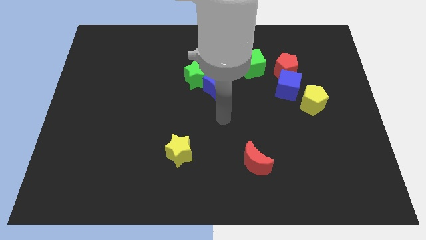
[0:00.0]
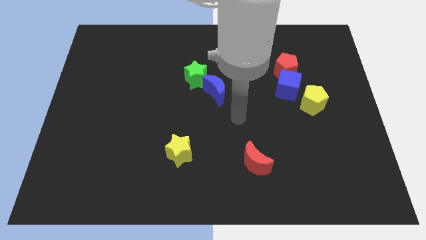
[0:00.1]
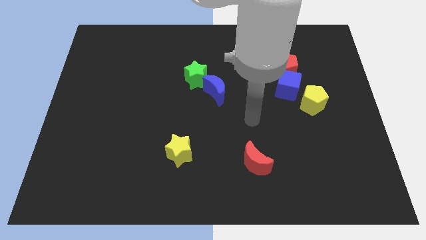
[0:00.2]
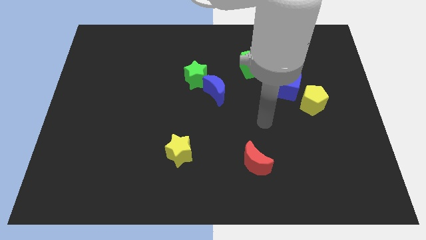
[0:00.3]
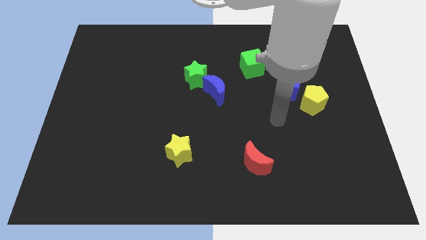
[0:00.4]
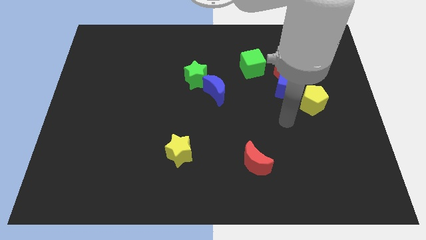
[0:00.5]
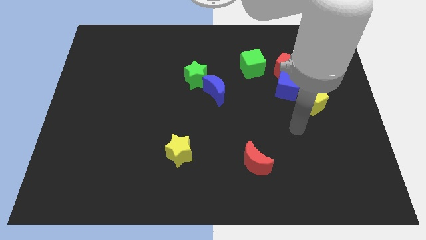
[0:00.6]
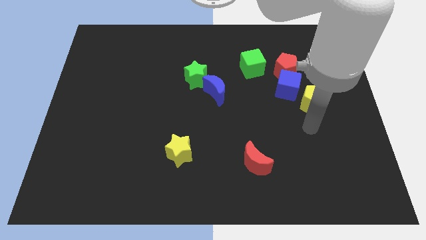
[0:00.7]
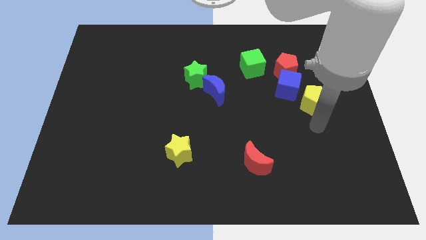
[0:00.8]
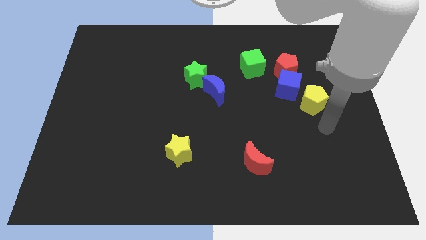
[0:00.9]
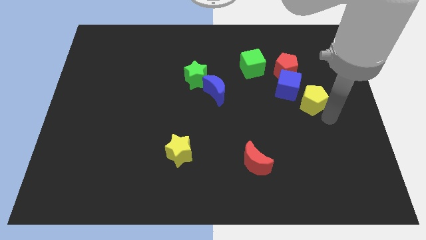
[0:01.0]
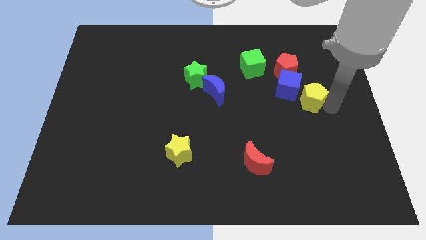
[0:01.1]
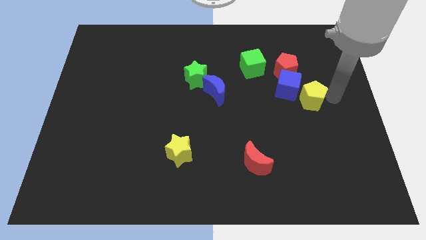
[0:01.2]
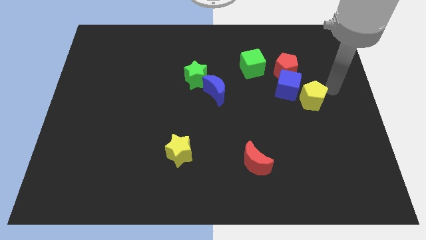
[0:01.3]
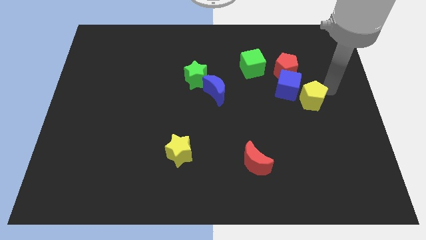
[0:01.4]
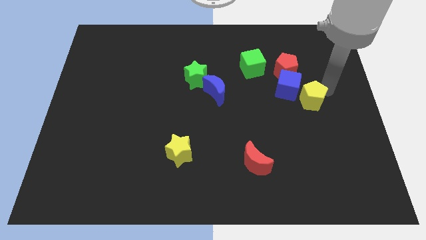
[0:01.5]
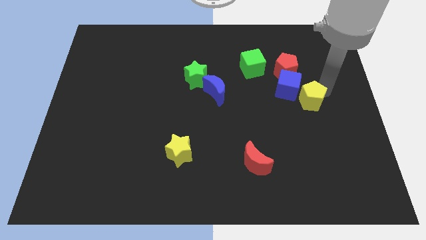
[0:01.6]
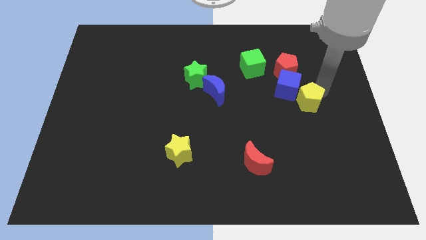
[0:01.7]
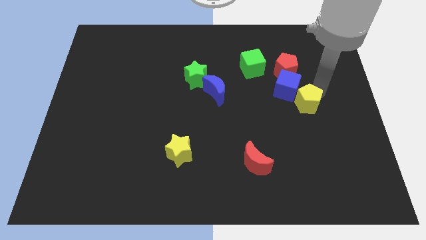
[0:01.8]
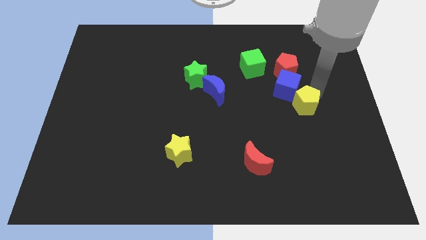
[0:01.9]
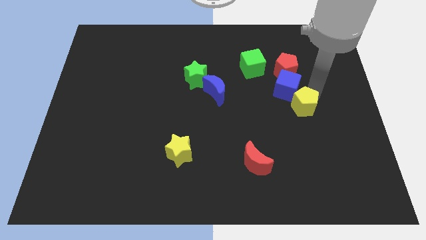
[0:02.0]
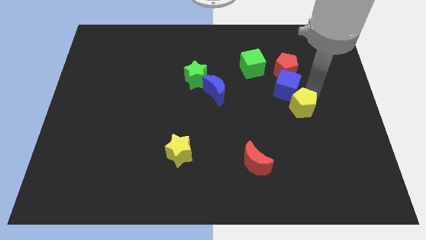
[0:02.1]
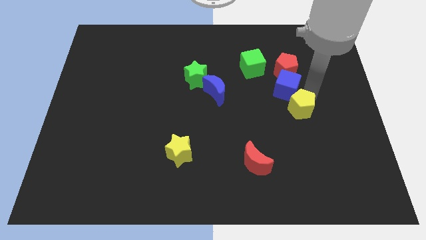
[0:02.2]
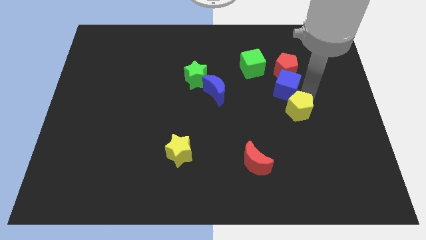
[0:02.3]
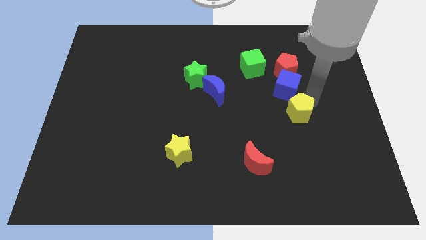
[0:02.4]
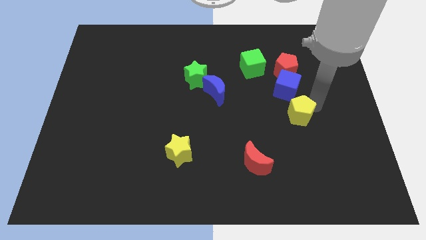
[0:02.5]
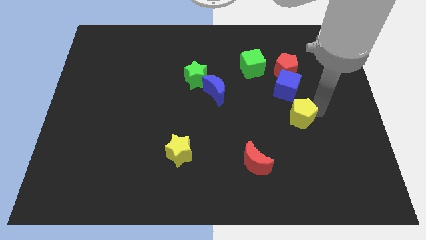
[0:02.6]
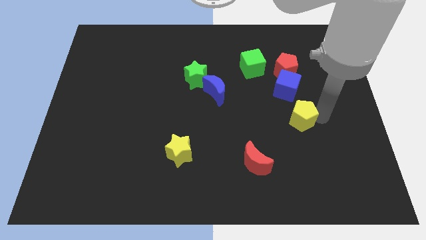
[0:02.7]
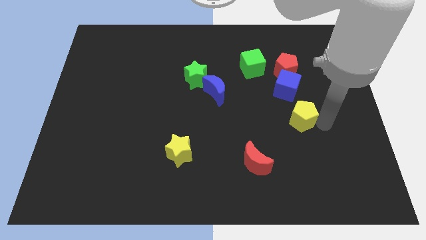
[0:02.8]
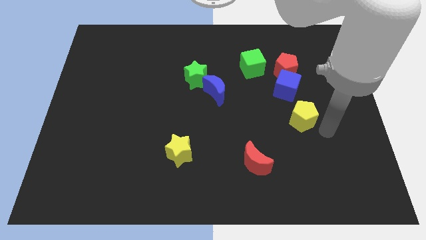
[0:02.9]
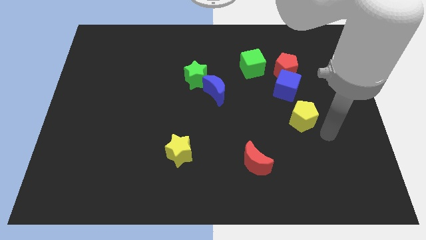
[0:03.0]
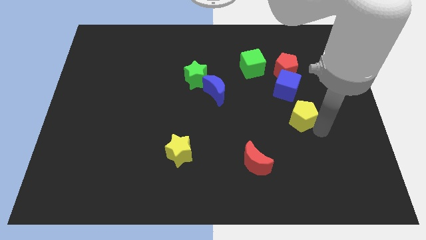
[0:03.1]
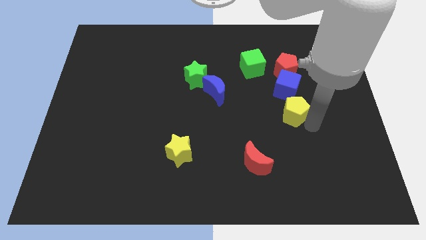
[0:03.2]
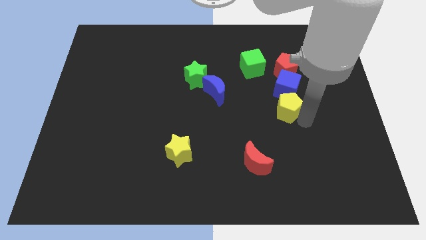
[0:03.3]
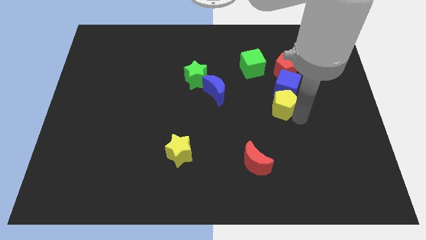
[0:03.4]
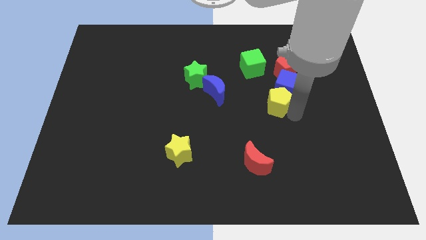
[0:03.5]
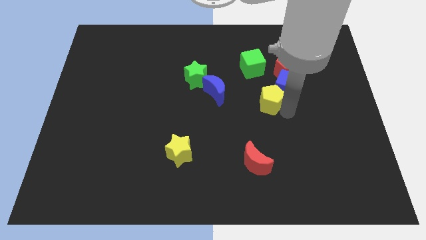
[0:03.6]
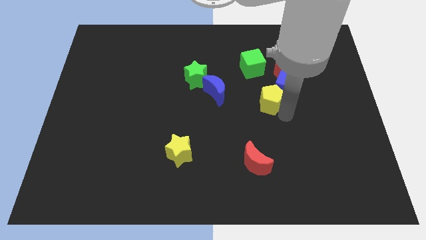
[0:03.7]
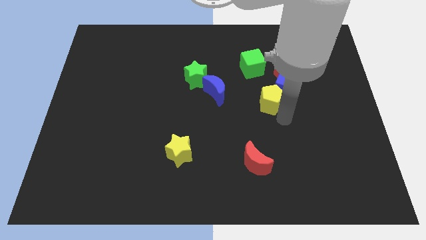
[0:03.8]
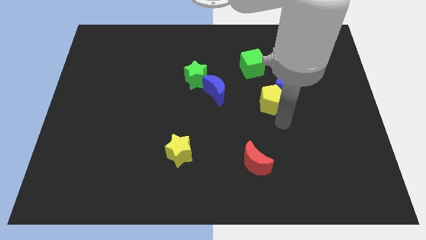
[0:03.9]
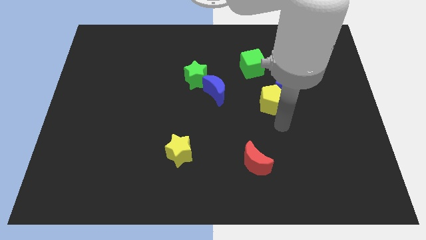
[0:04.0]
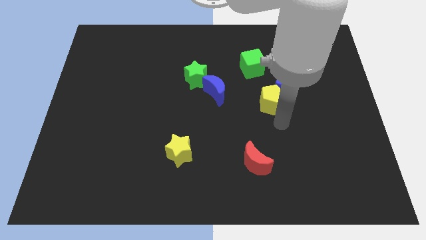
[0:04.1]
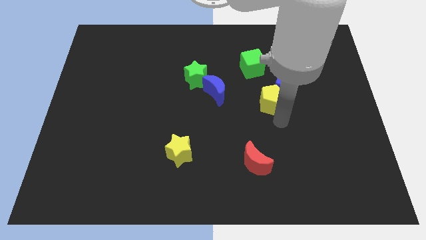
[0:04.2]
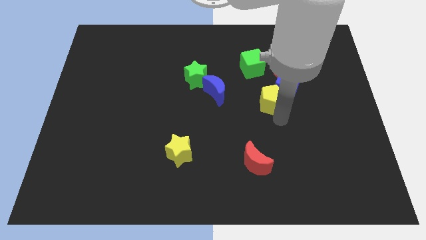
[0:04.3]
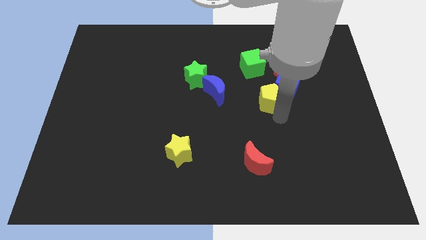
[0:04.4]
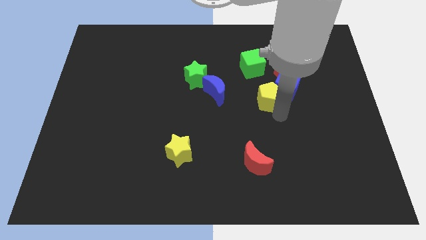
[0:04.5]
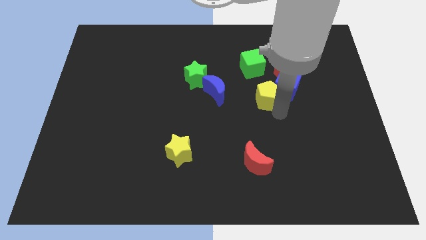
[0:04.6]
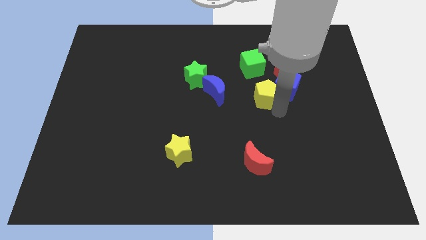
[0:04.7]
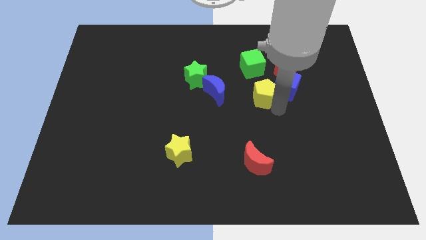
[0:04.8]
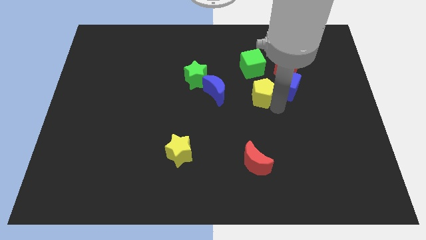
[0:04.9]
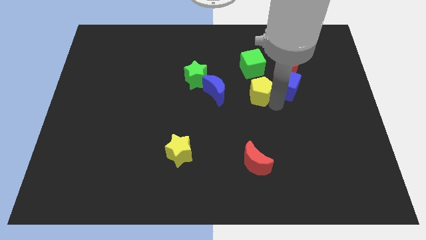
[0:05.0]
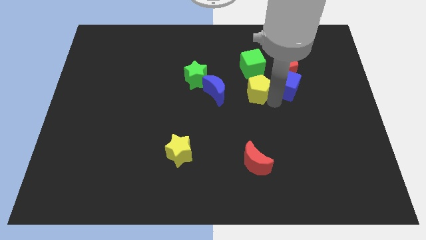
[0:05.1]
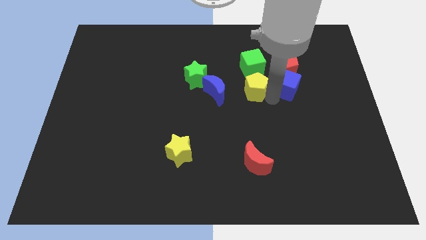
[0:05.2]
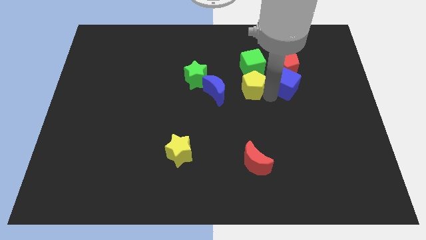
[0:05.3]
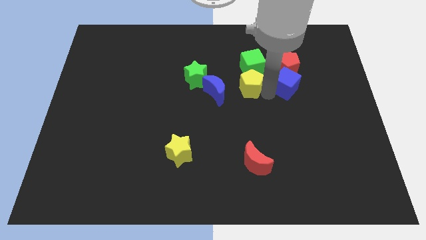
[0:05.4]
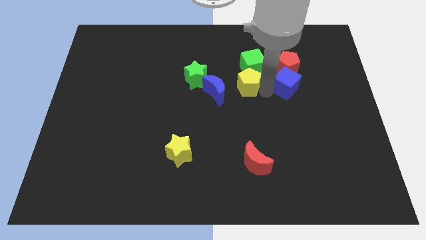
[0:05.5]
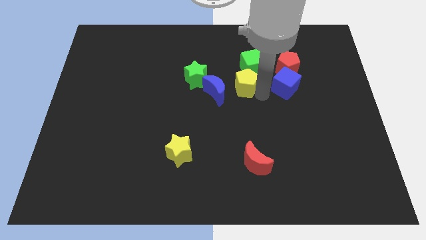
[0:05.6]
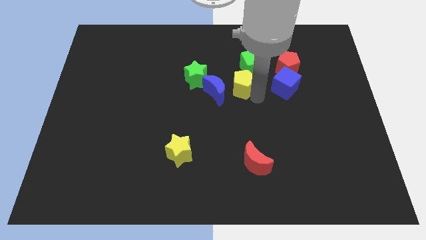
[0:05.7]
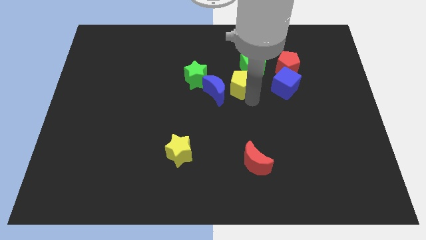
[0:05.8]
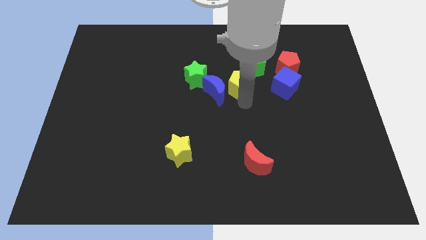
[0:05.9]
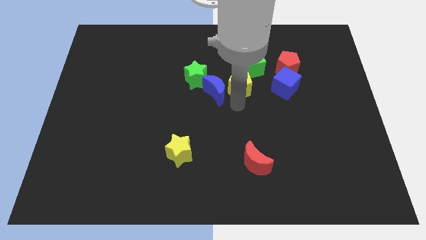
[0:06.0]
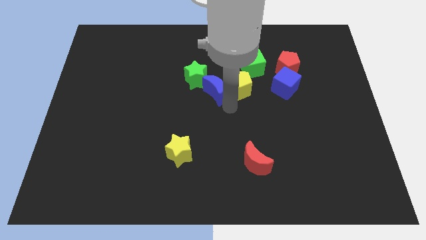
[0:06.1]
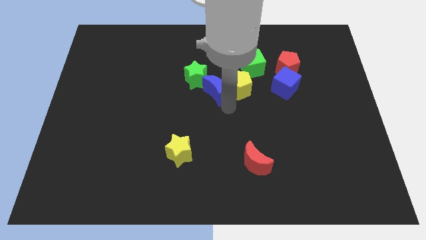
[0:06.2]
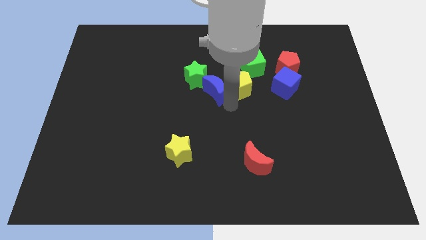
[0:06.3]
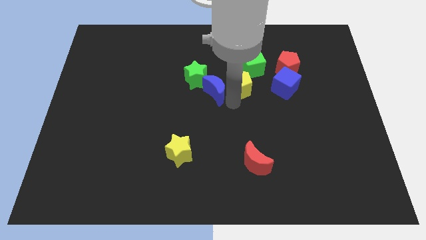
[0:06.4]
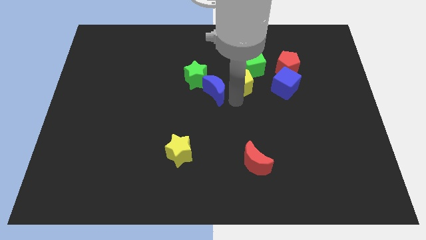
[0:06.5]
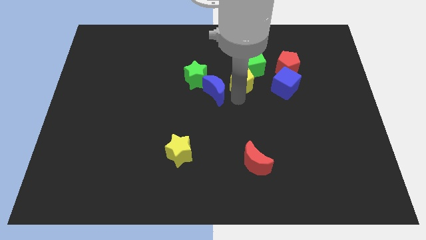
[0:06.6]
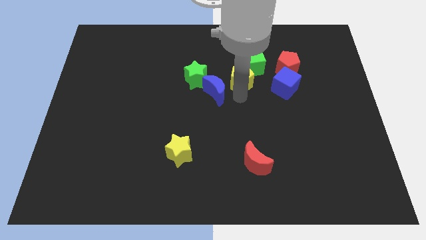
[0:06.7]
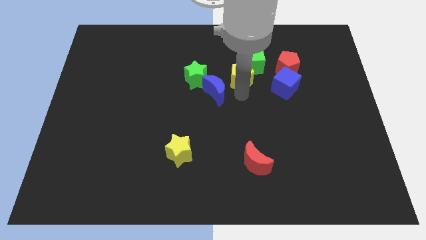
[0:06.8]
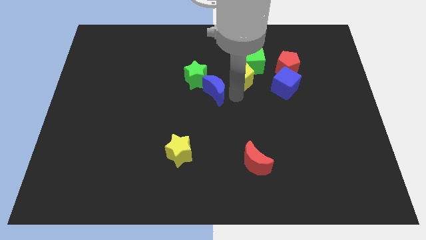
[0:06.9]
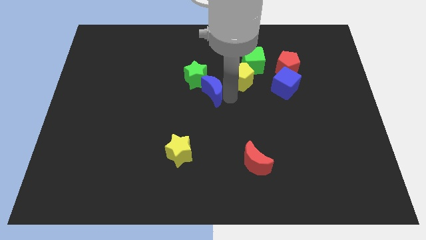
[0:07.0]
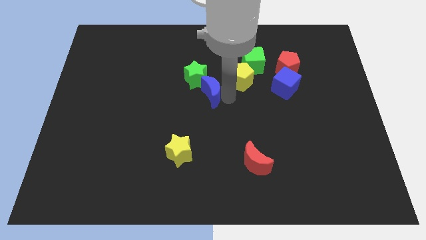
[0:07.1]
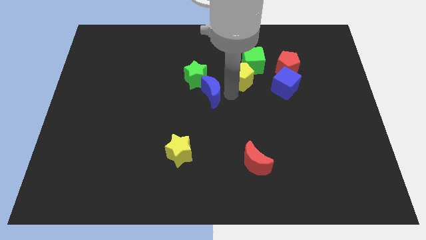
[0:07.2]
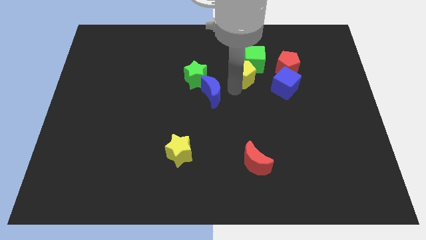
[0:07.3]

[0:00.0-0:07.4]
push the yellow pentagon close to the green cube
